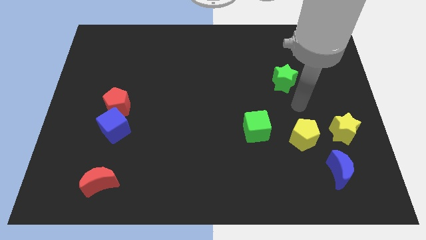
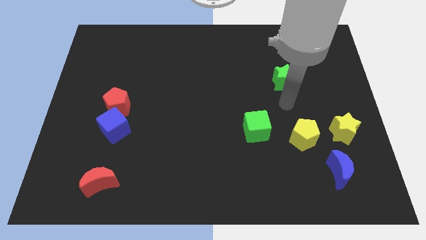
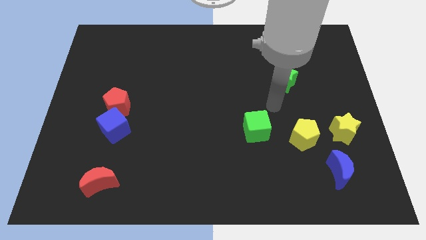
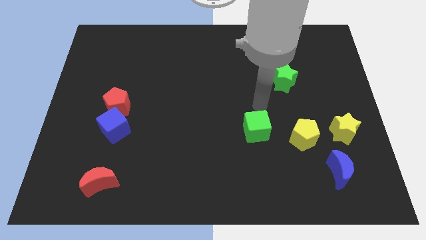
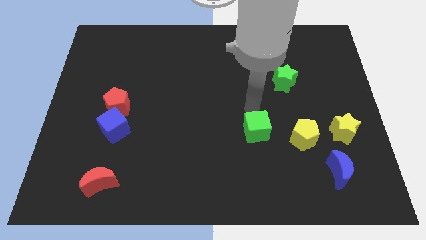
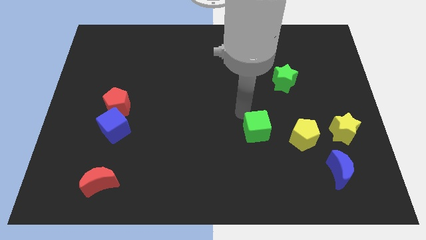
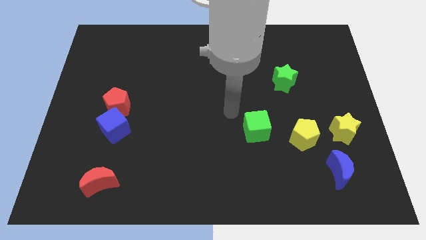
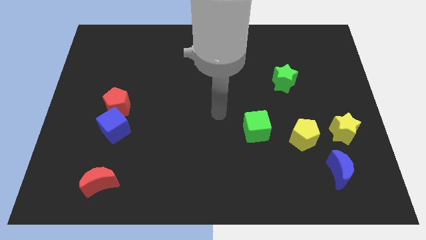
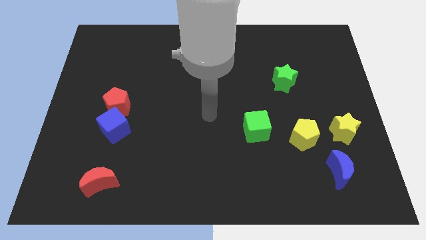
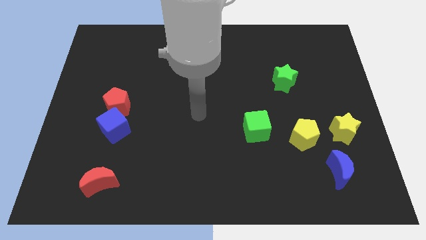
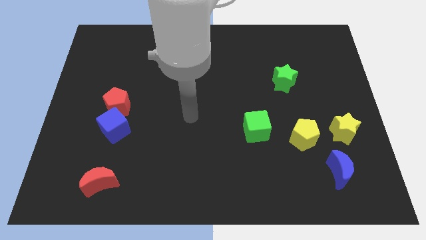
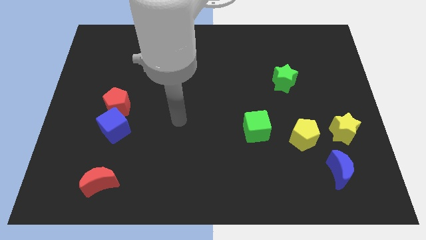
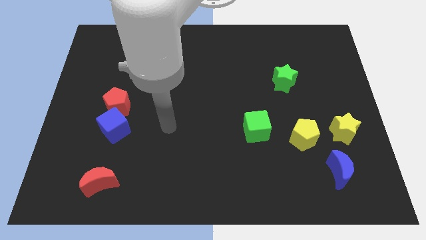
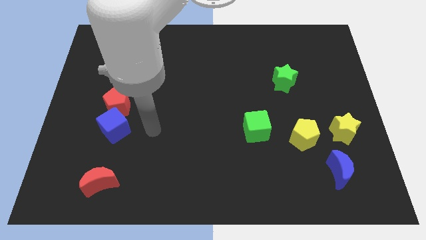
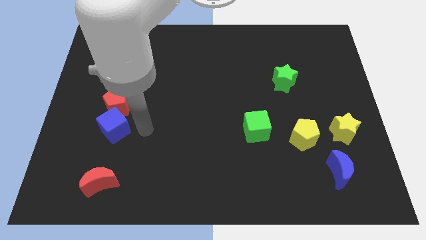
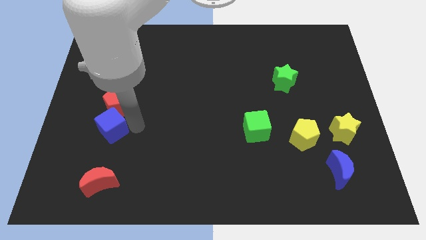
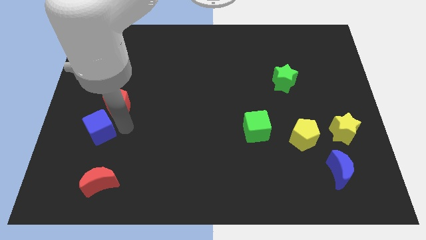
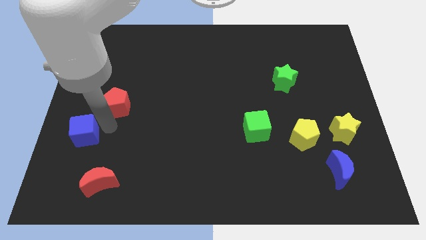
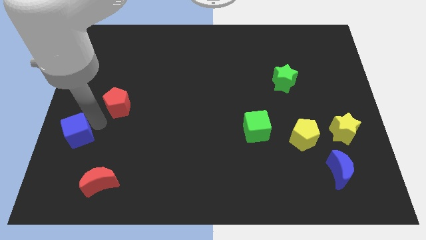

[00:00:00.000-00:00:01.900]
move the red pentagon away from the blue cube

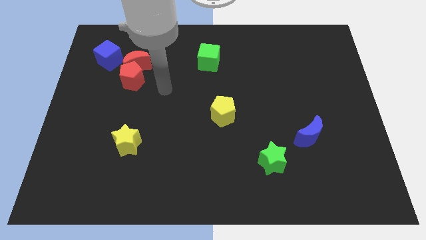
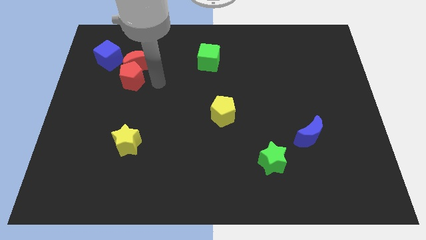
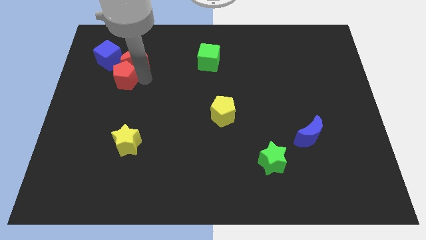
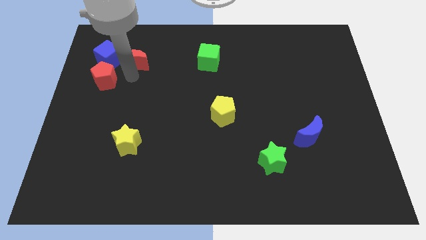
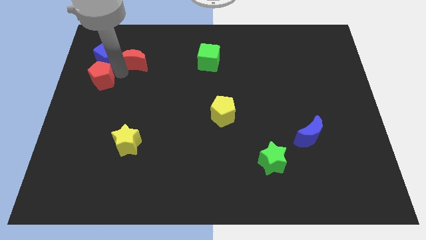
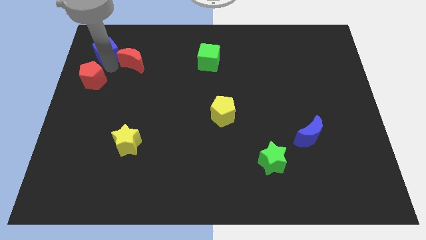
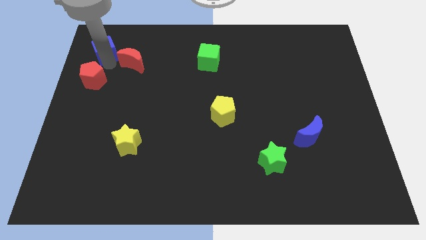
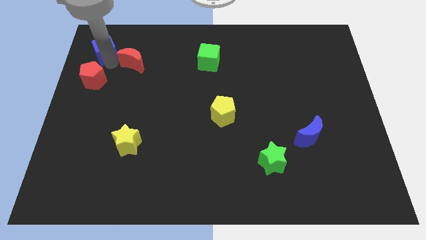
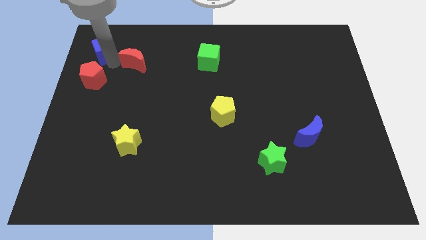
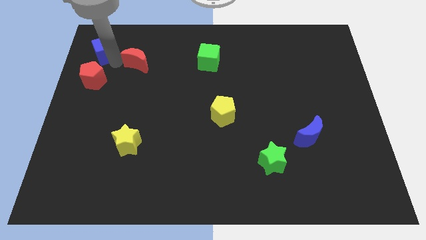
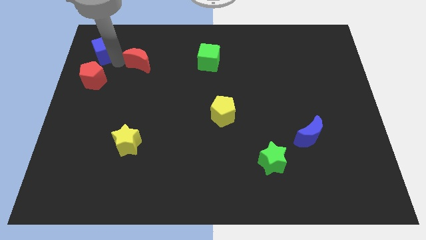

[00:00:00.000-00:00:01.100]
pull the red moon apart from the red pentagon and blue cube

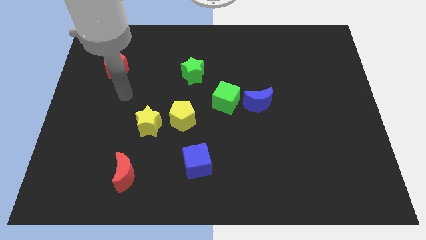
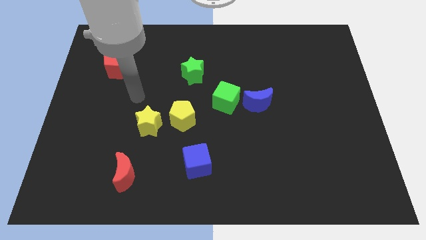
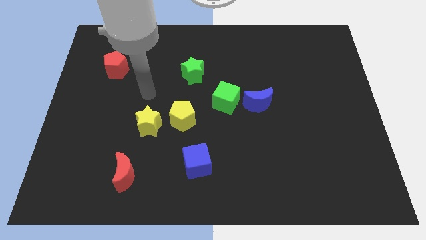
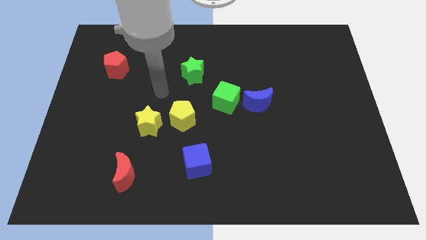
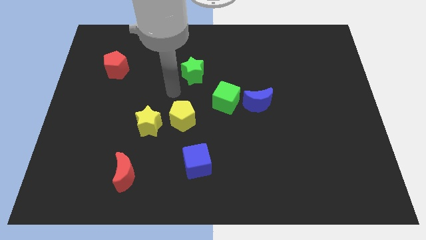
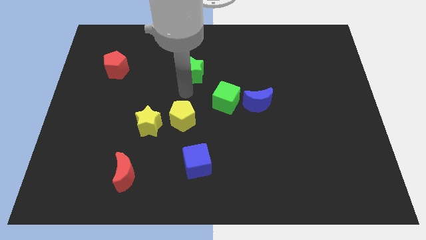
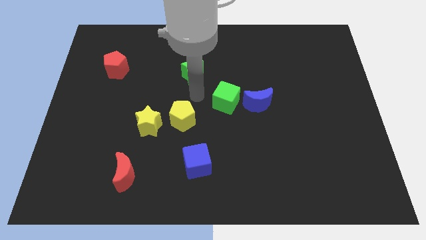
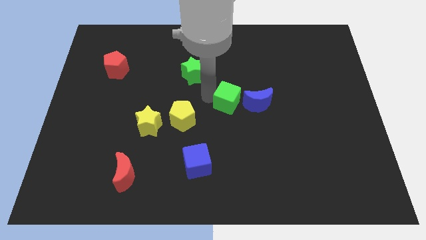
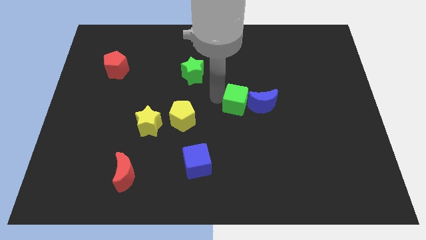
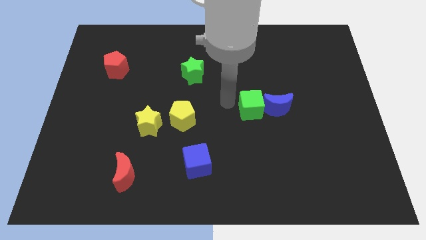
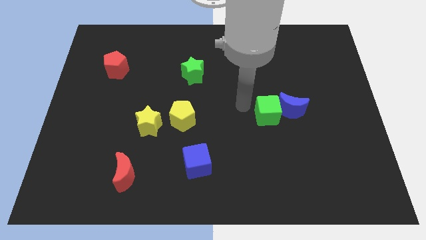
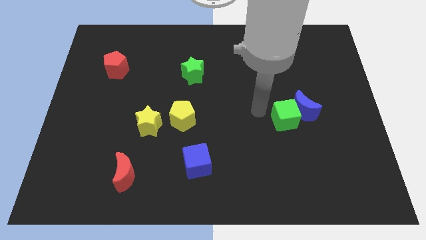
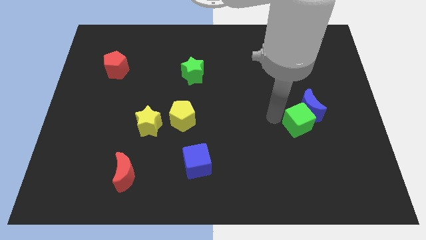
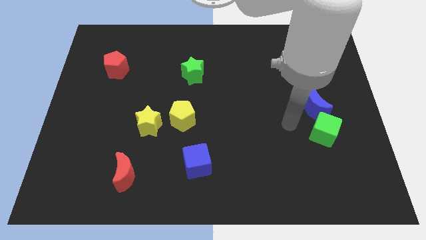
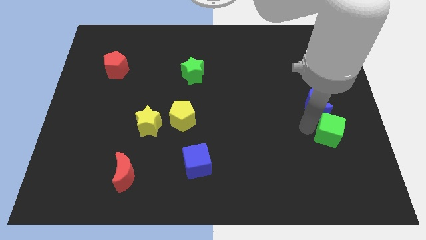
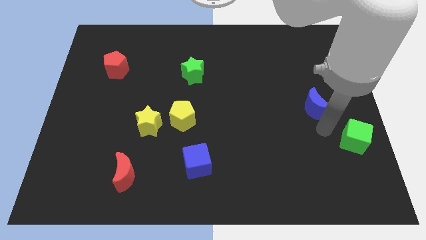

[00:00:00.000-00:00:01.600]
separate the blue moon from the green cube

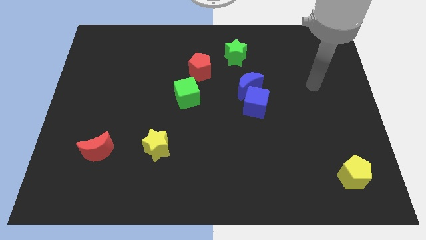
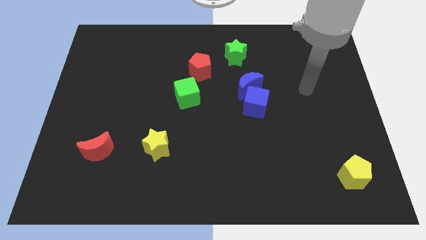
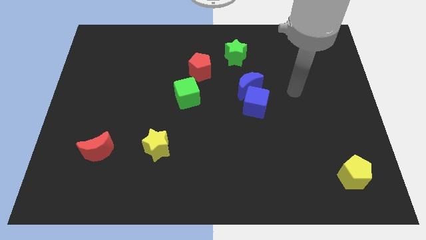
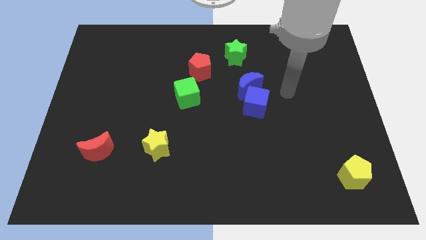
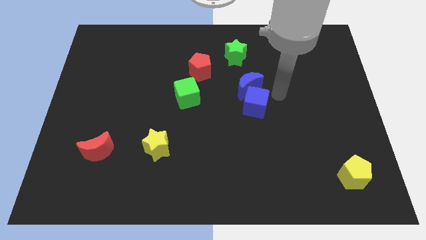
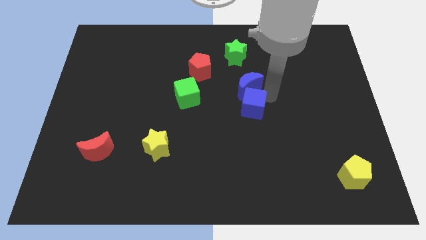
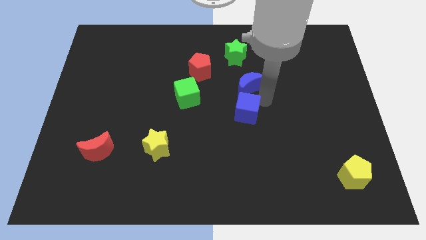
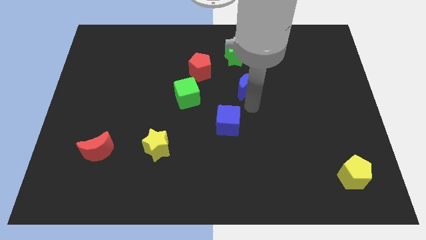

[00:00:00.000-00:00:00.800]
move the blue moon away from the blue cube

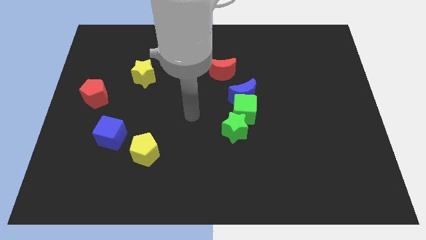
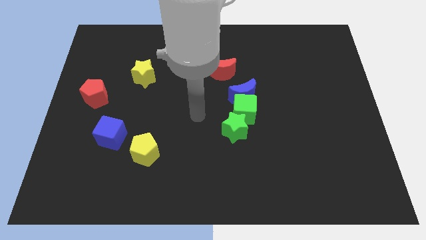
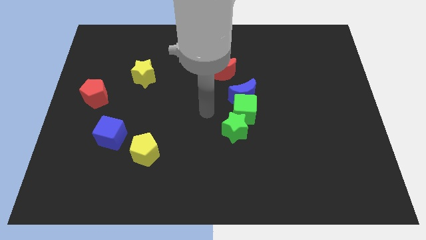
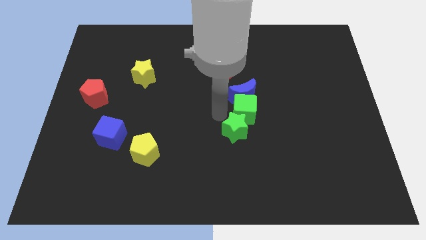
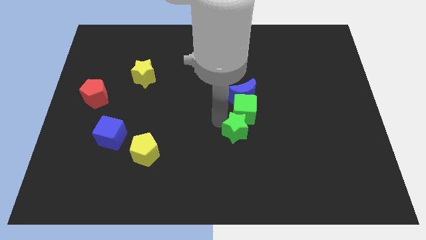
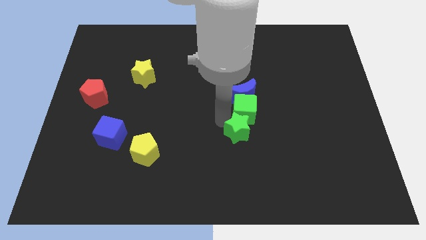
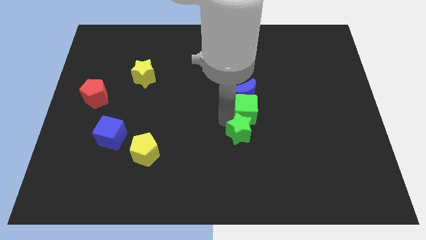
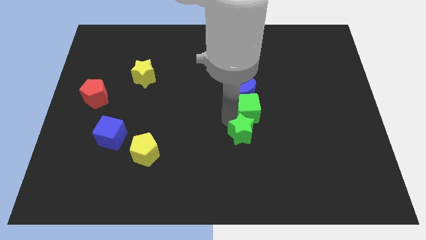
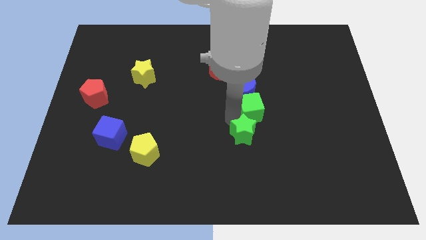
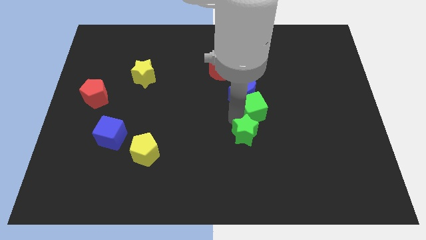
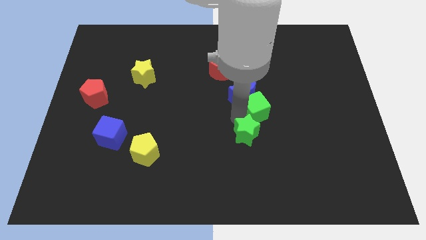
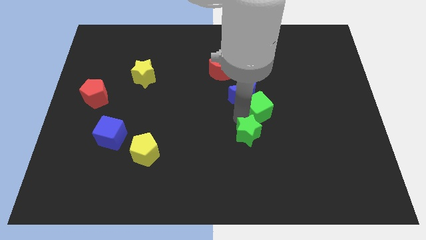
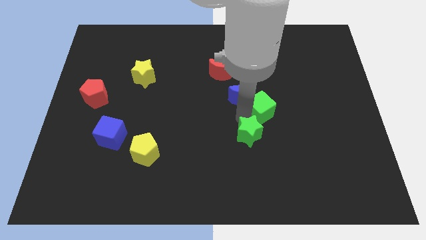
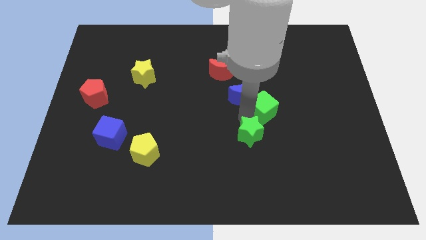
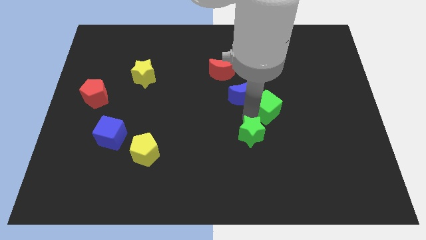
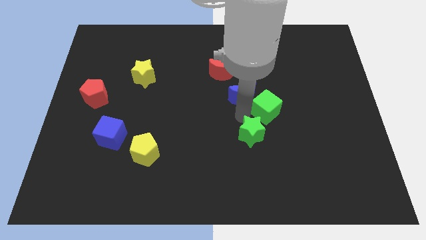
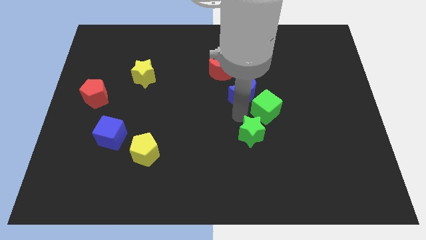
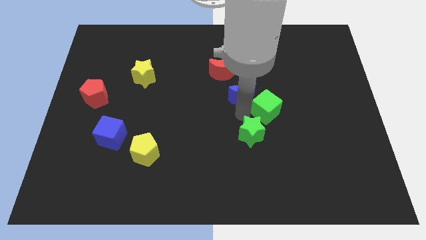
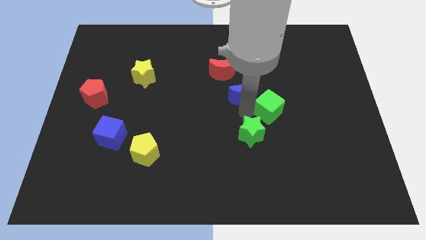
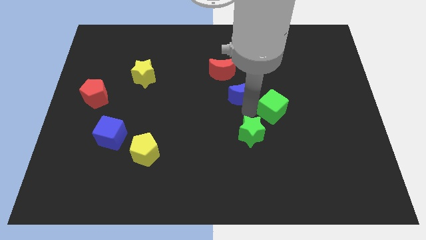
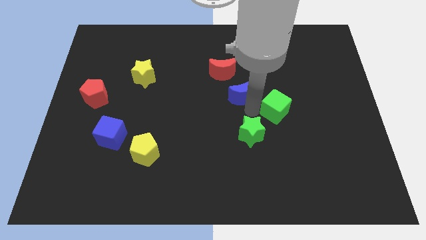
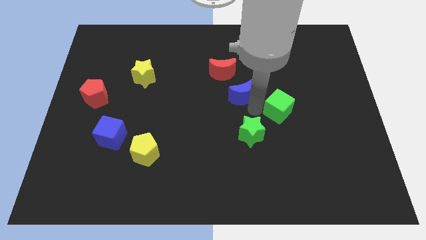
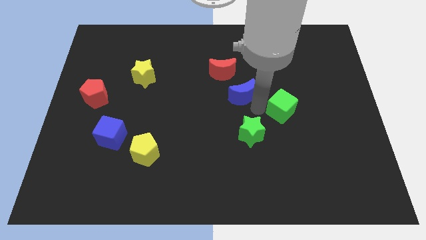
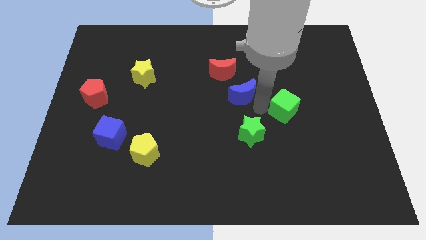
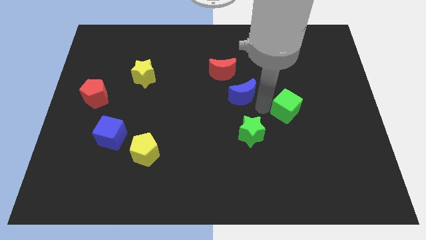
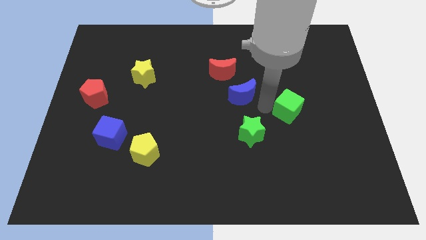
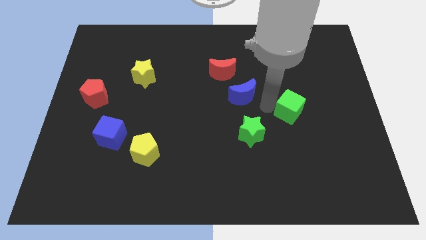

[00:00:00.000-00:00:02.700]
pull the green cube apart from the blue moon and green star

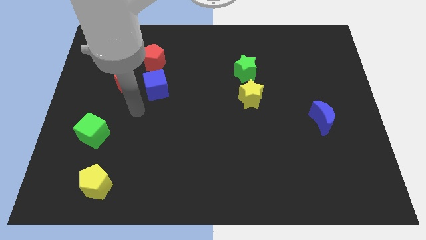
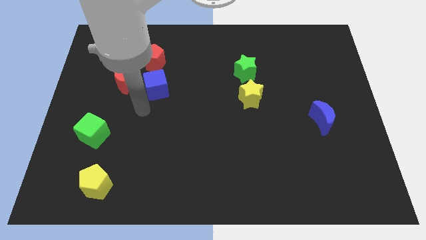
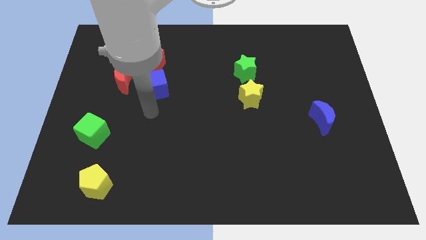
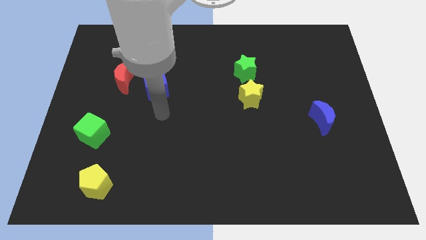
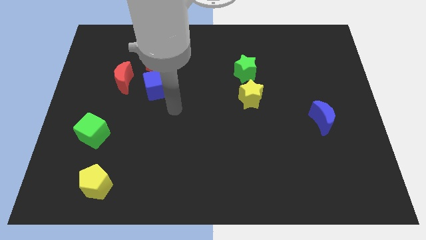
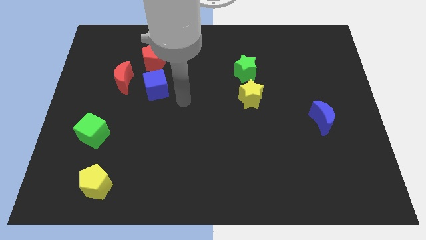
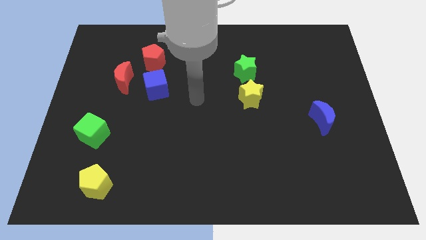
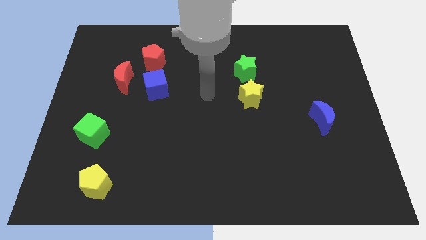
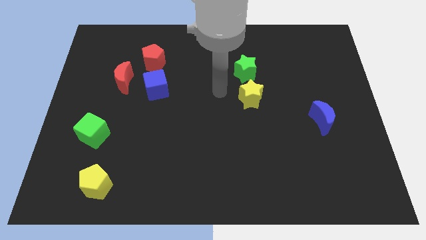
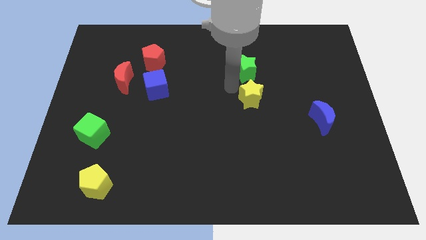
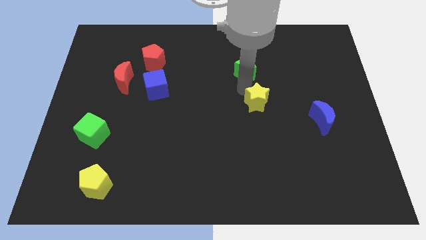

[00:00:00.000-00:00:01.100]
move the green star away from the yellow star
